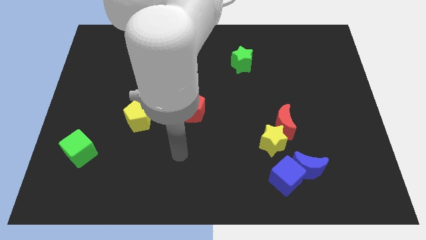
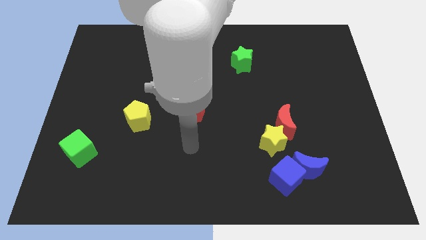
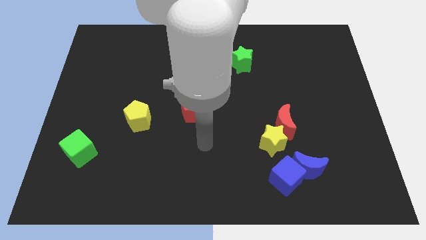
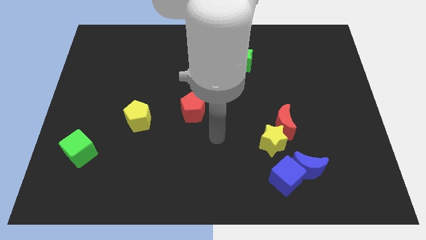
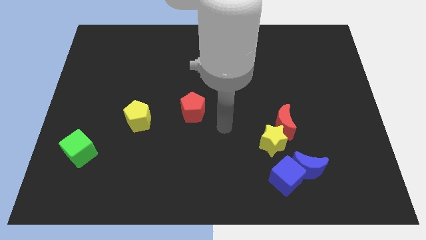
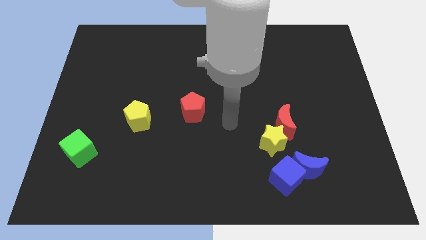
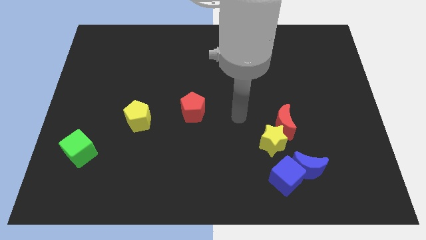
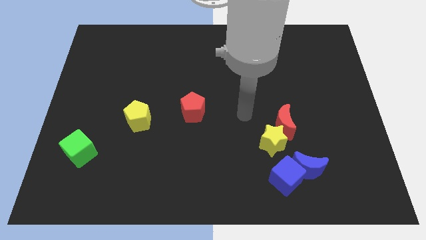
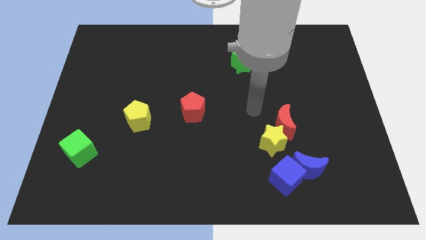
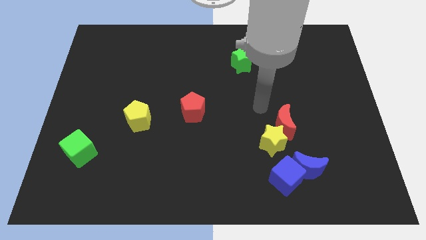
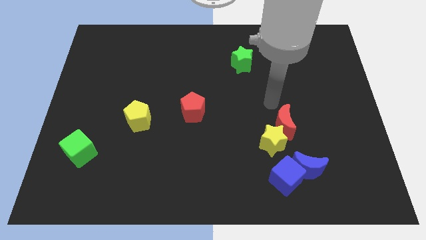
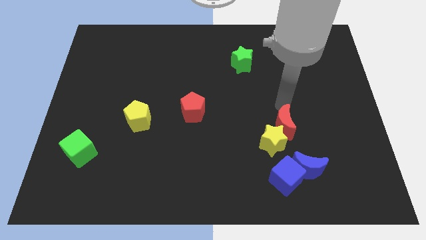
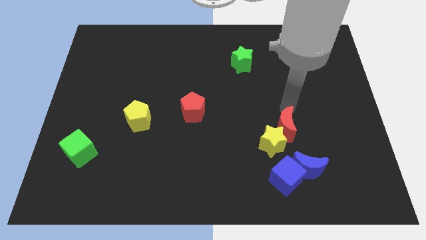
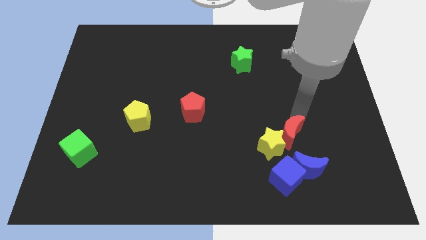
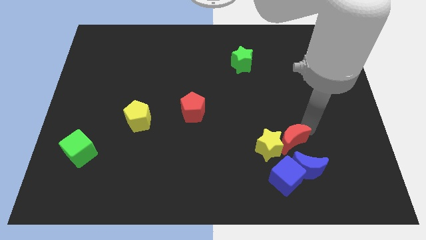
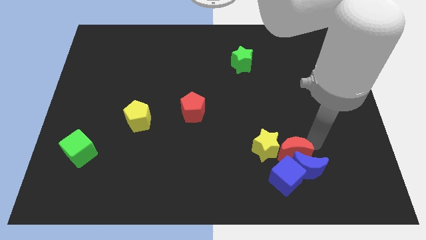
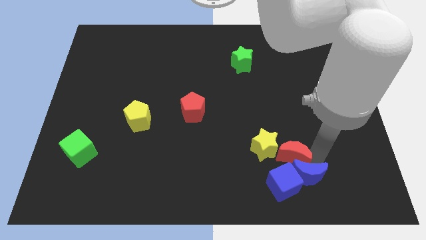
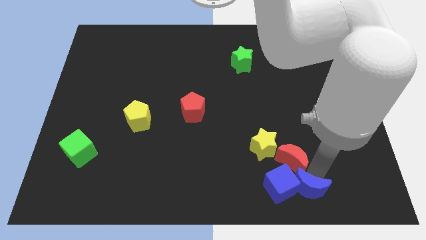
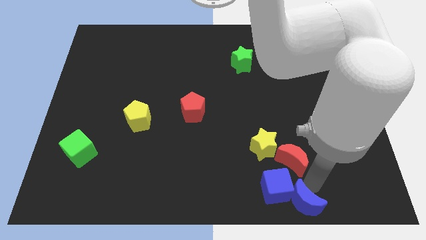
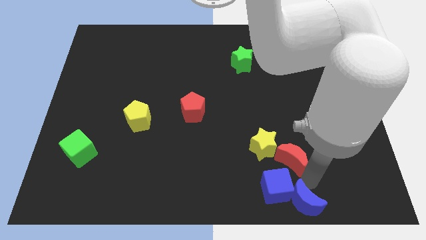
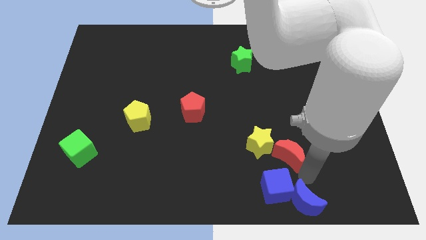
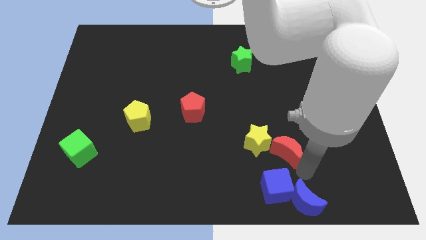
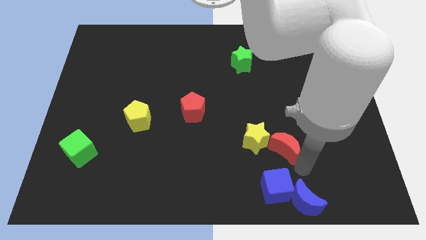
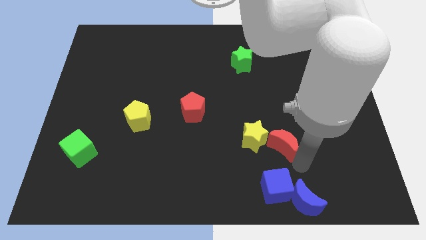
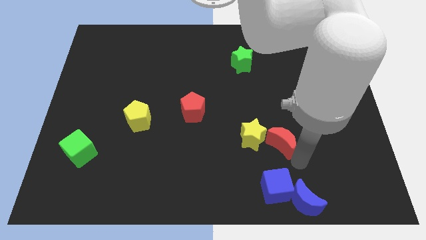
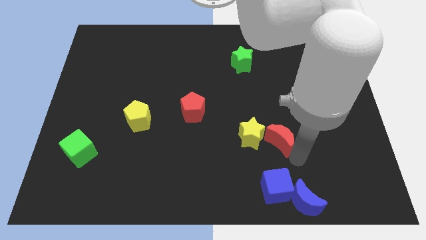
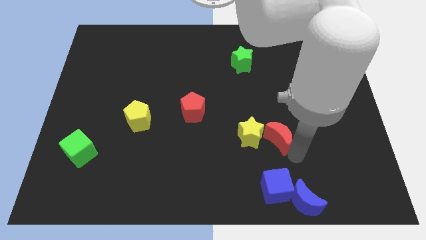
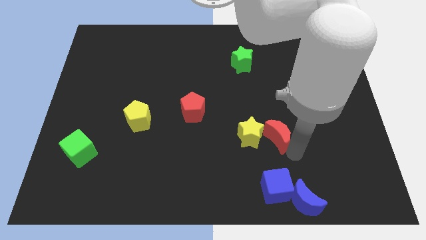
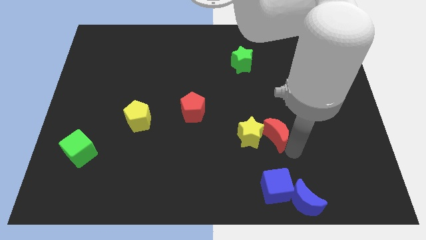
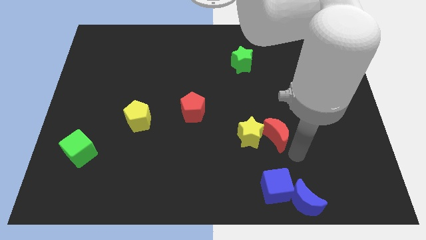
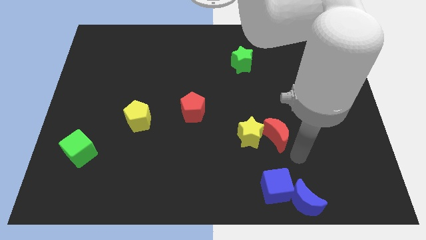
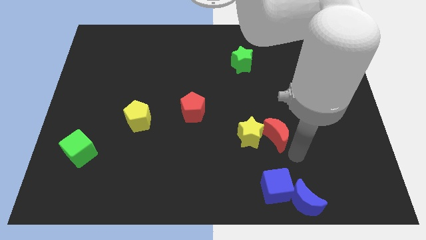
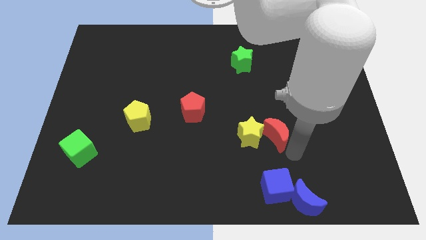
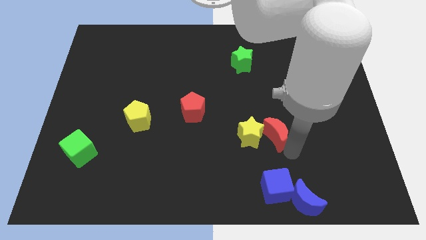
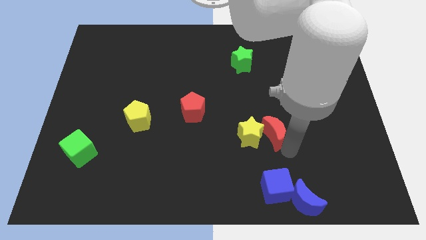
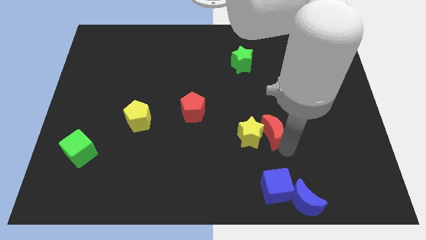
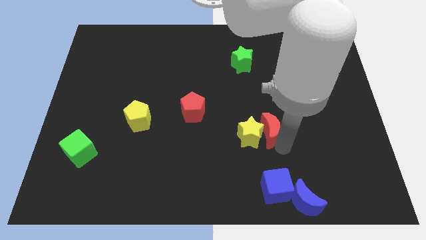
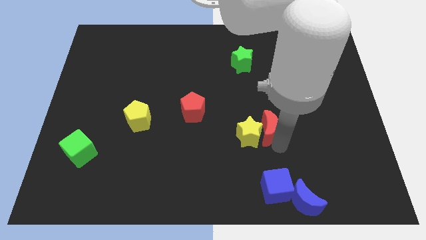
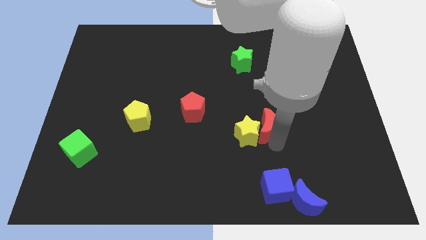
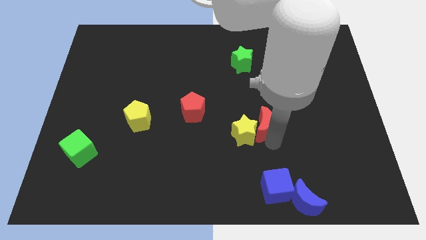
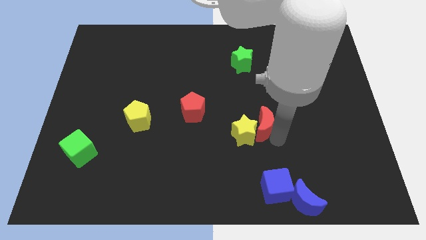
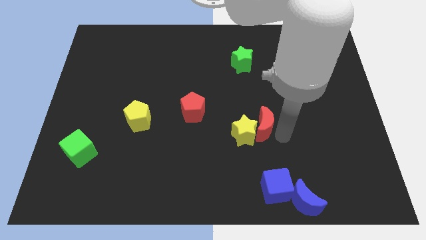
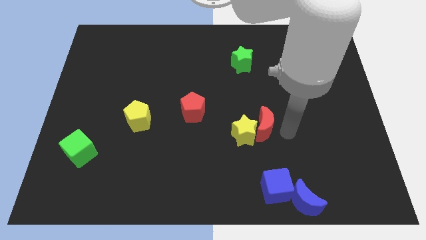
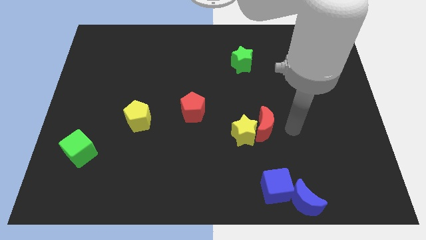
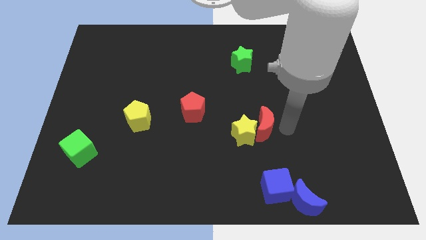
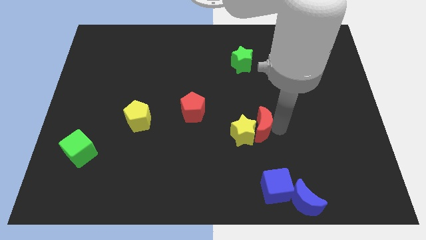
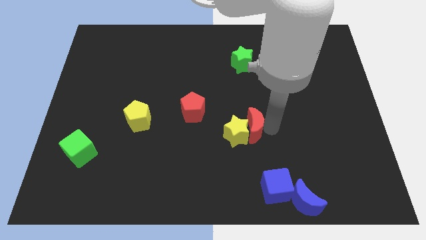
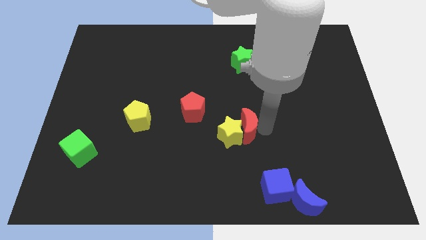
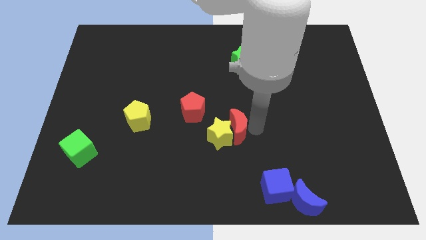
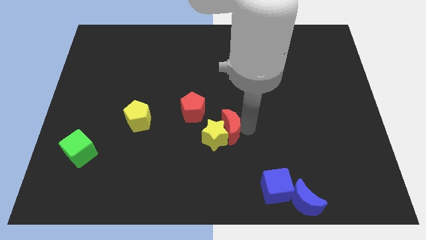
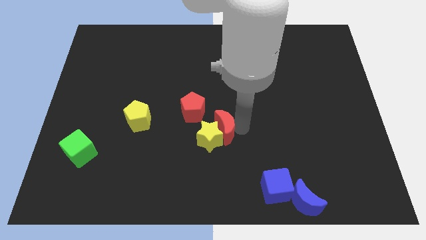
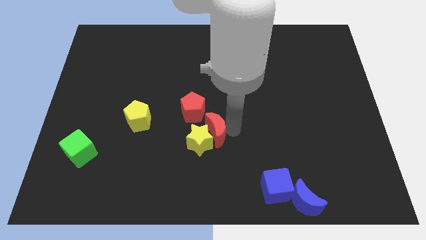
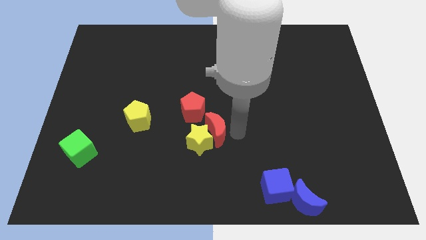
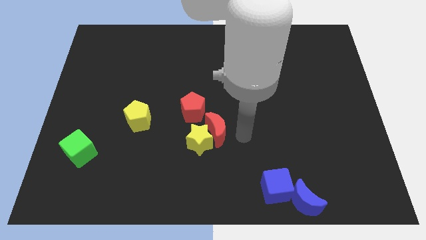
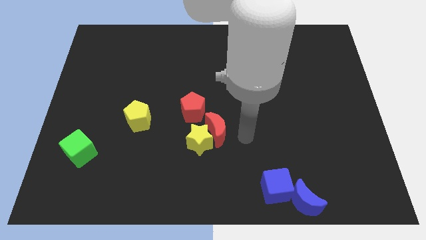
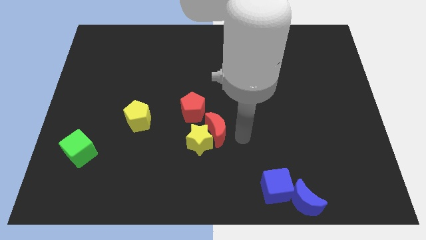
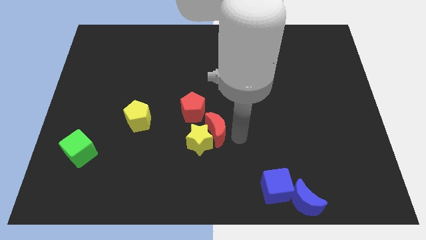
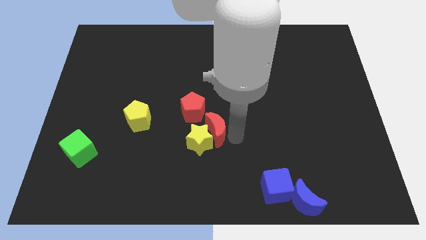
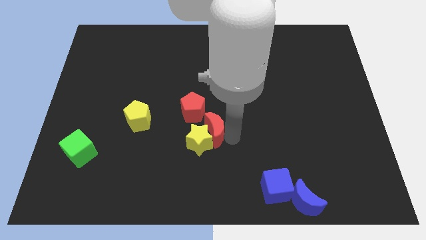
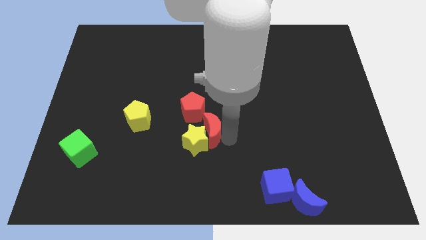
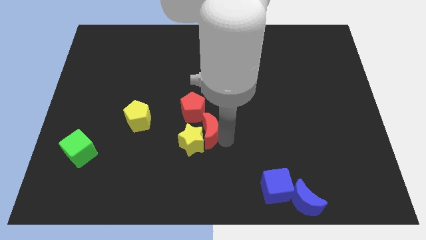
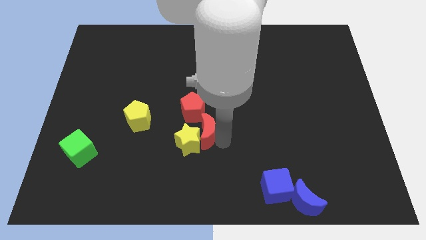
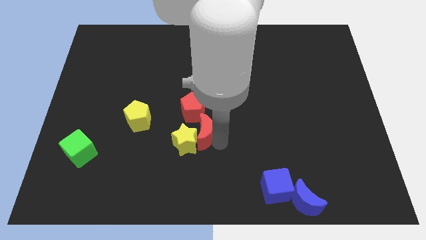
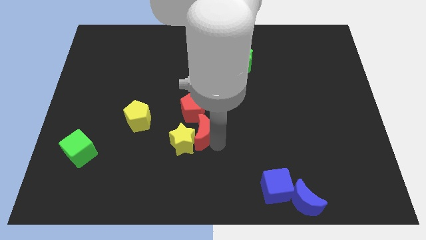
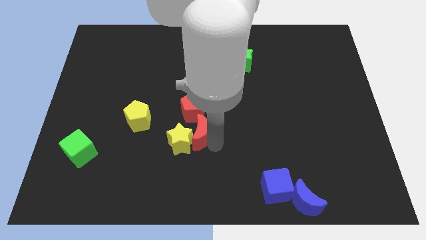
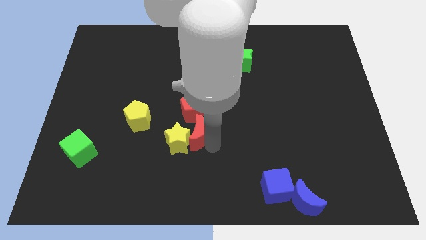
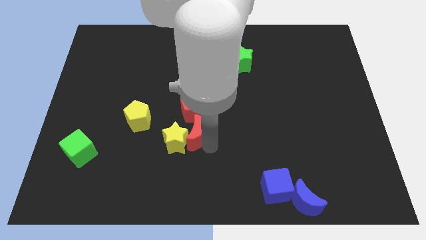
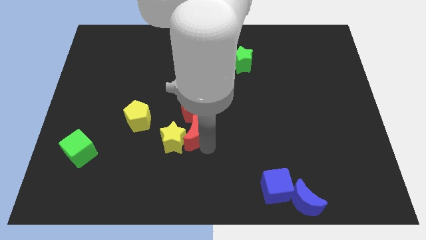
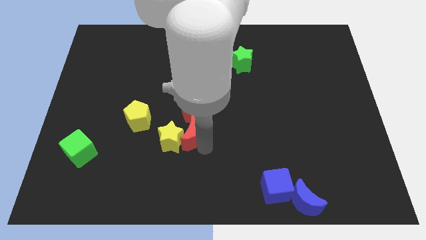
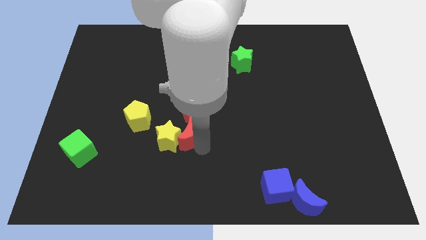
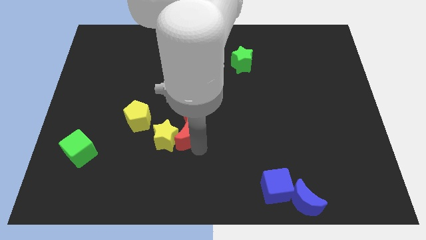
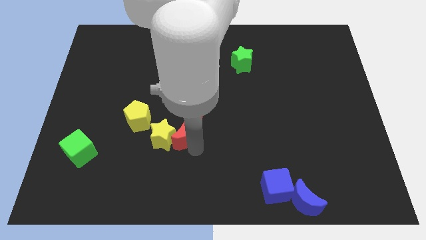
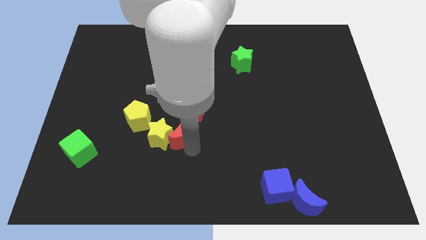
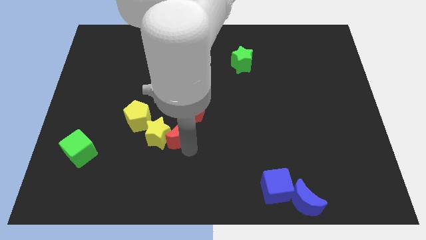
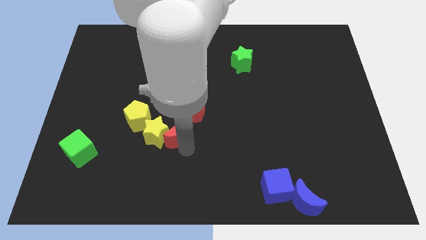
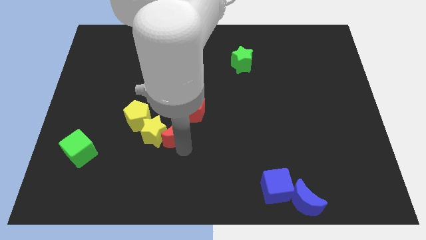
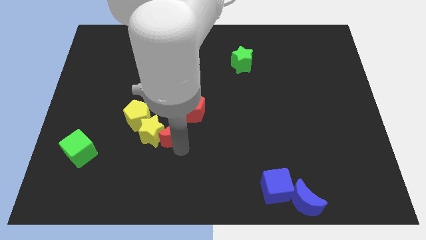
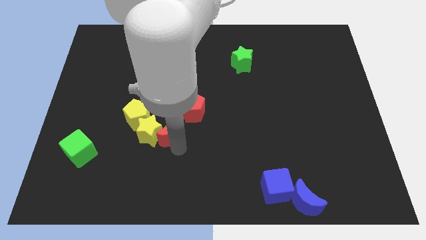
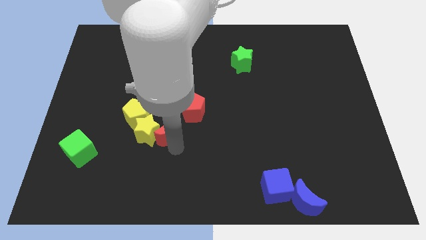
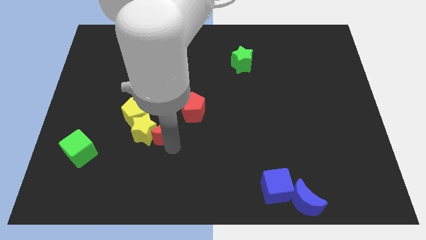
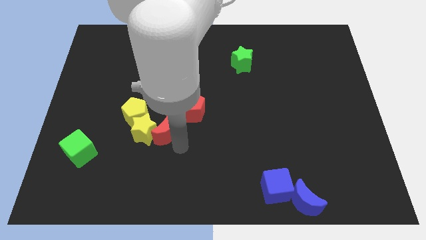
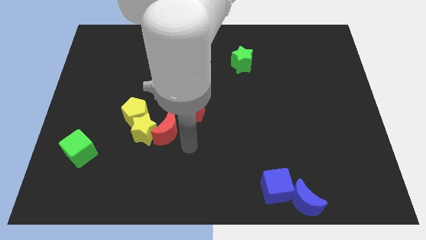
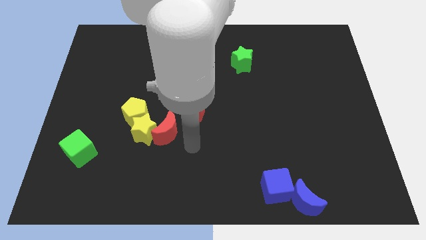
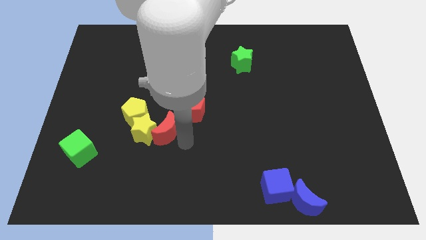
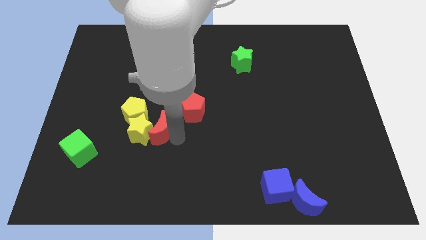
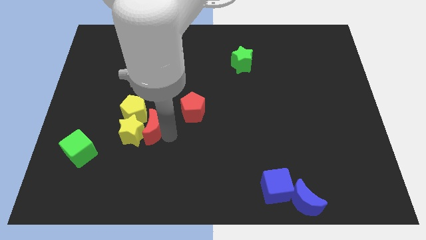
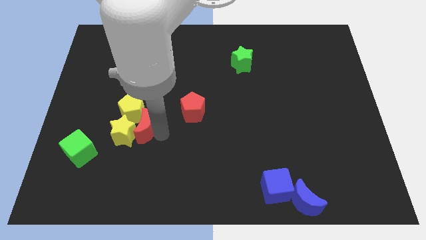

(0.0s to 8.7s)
push the red moon towards the yellow pentagon
